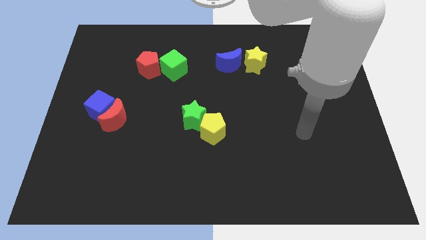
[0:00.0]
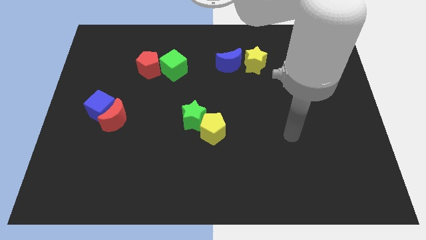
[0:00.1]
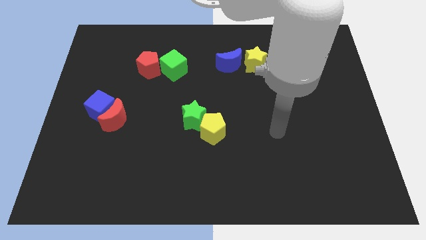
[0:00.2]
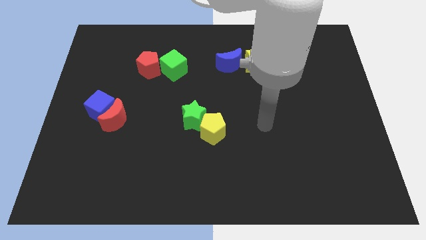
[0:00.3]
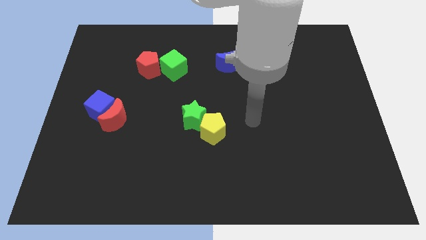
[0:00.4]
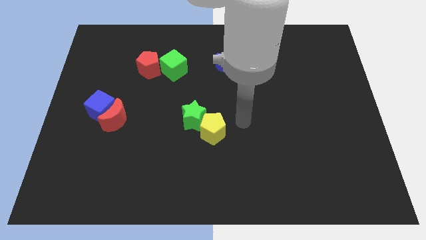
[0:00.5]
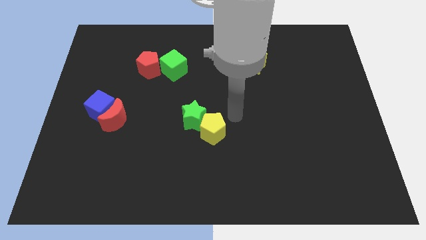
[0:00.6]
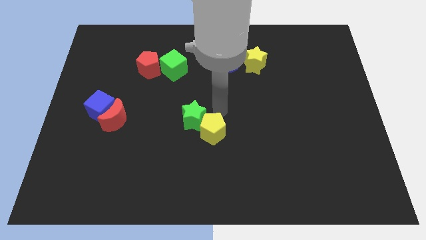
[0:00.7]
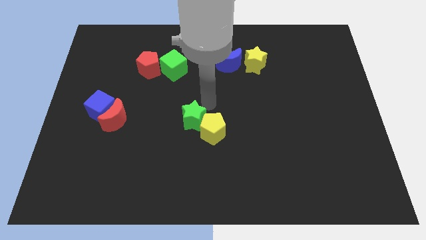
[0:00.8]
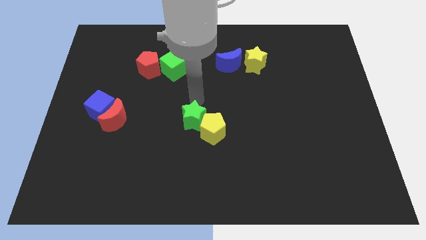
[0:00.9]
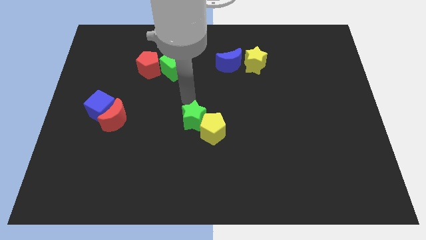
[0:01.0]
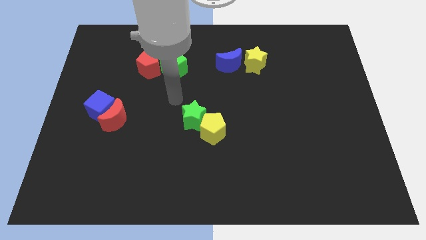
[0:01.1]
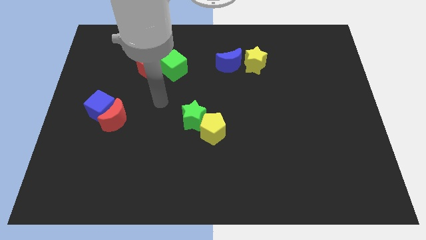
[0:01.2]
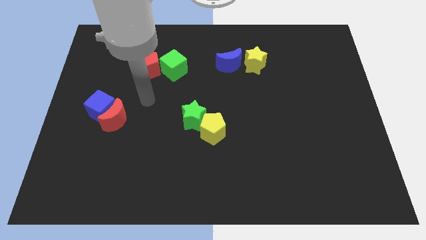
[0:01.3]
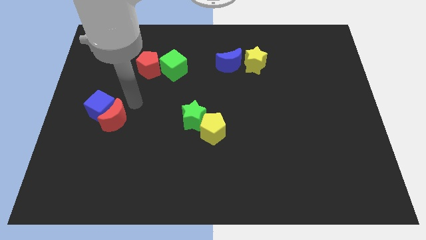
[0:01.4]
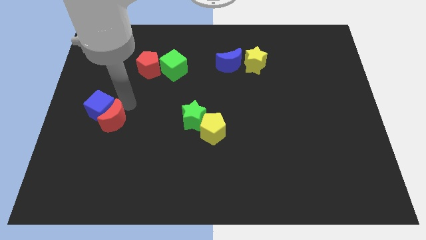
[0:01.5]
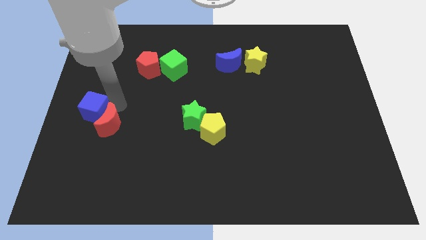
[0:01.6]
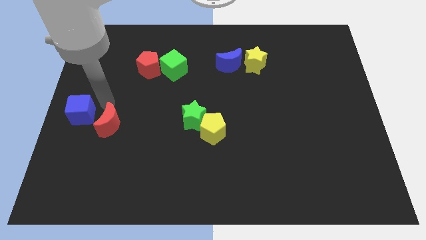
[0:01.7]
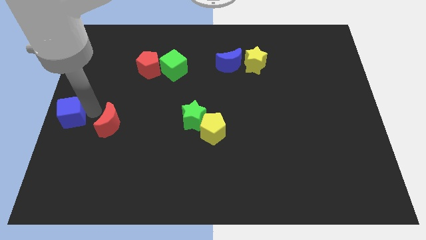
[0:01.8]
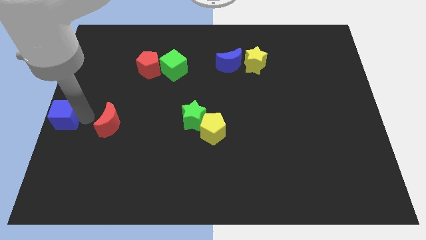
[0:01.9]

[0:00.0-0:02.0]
pull the red moon apart from the blue cube

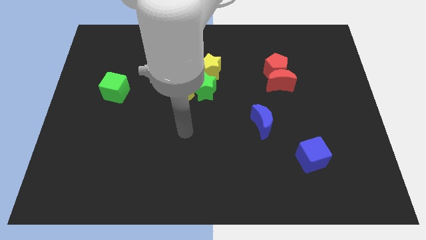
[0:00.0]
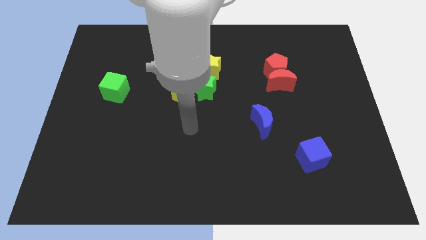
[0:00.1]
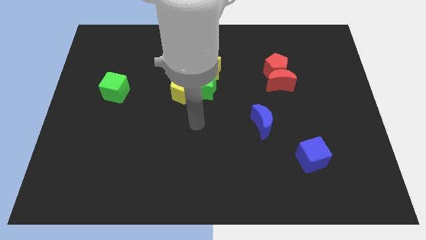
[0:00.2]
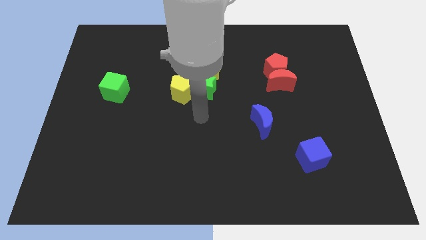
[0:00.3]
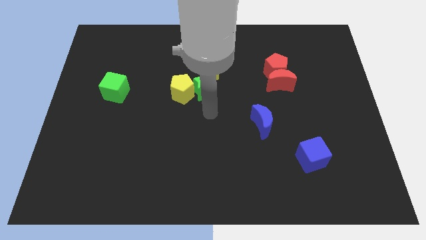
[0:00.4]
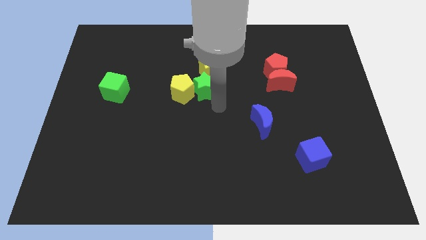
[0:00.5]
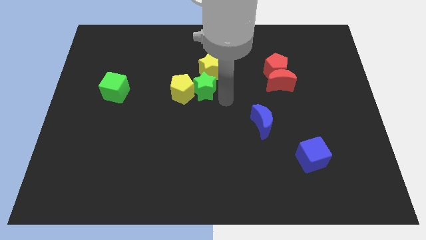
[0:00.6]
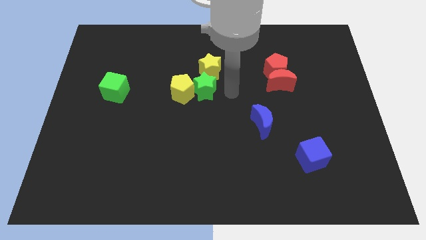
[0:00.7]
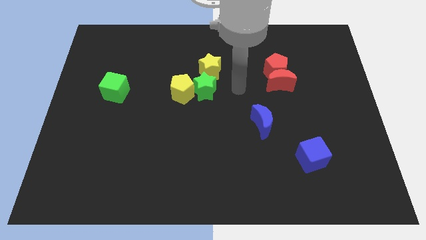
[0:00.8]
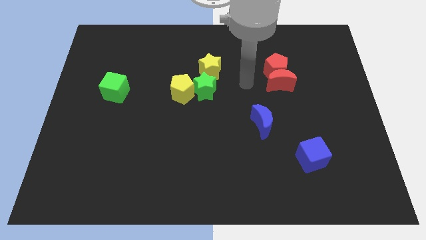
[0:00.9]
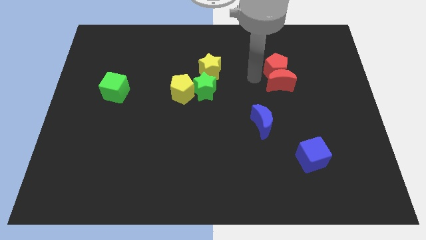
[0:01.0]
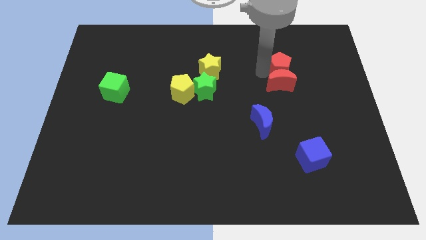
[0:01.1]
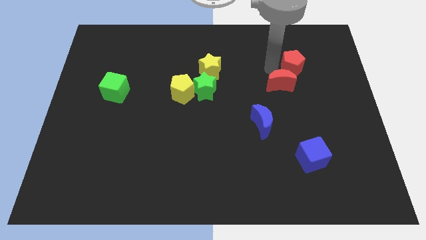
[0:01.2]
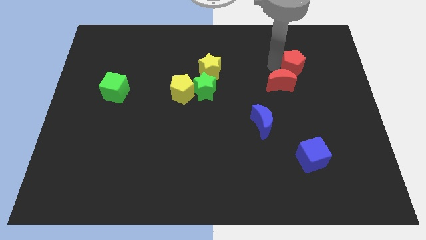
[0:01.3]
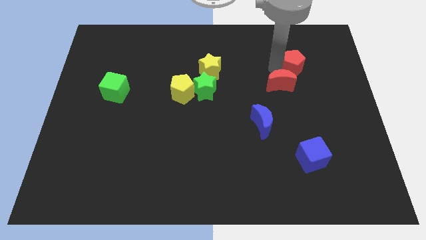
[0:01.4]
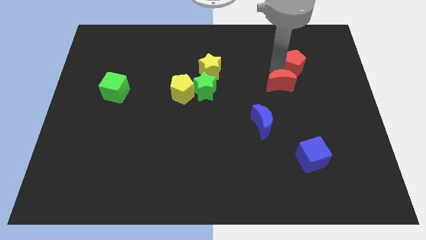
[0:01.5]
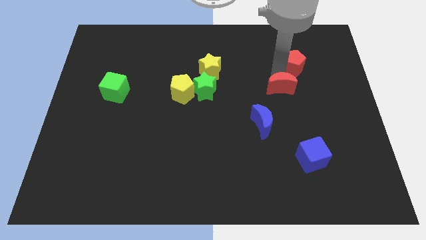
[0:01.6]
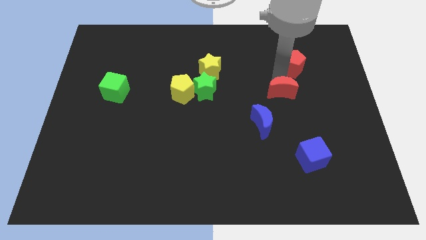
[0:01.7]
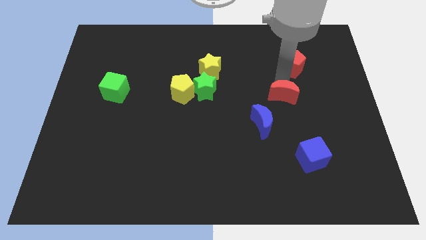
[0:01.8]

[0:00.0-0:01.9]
move the red moon away from the red pentagon

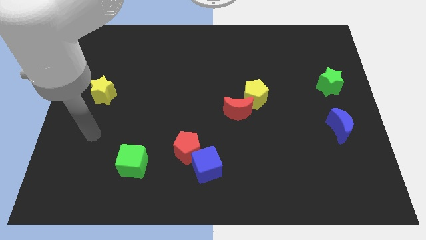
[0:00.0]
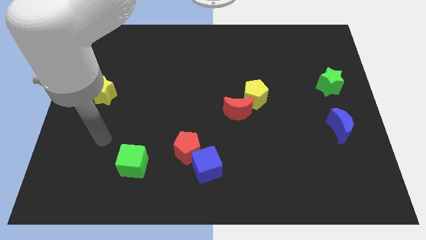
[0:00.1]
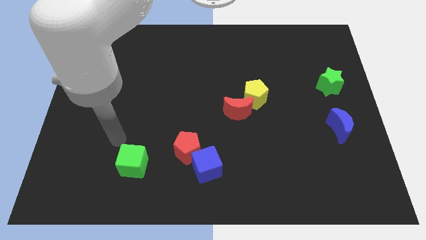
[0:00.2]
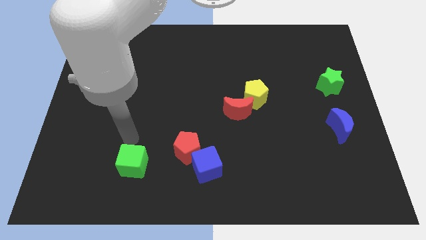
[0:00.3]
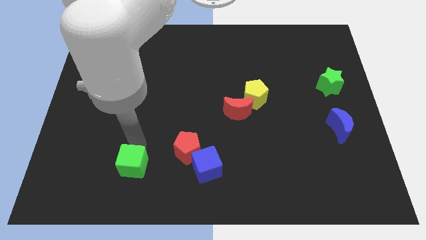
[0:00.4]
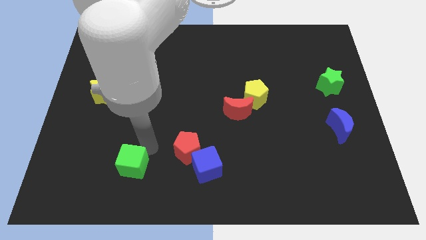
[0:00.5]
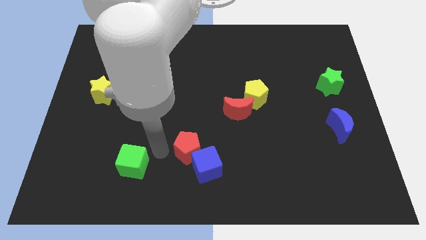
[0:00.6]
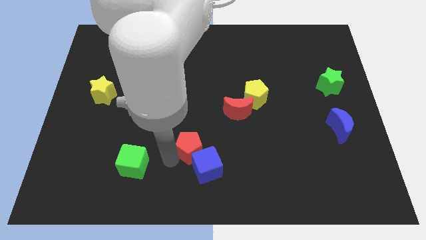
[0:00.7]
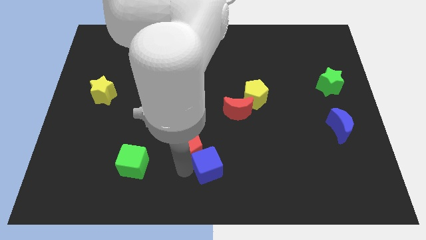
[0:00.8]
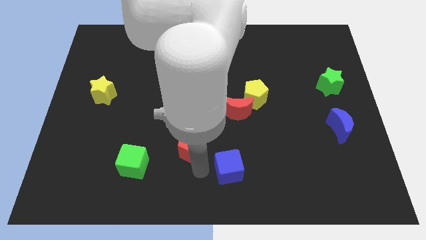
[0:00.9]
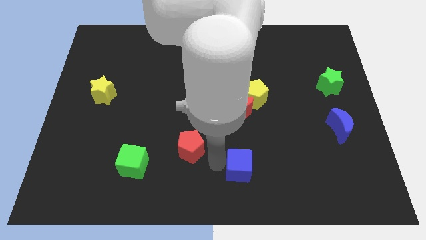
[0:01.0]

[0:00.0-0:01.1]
move the red pentagon away from the blue cube

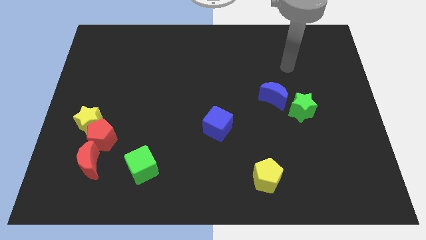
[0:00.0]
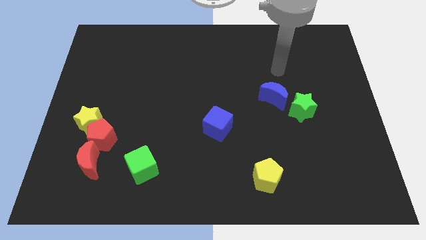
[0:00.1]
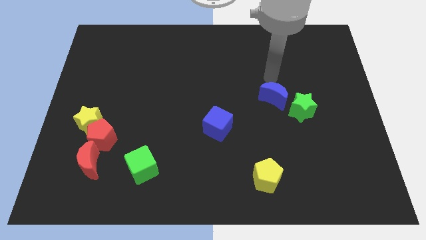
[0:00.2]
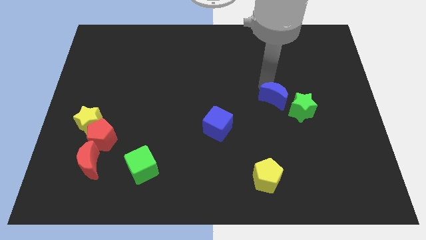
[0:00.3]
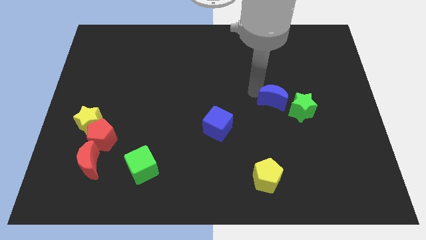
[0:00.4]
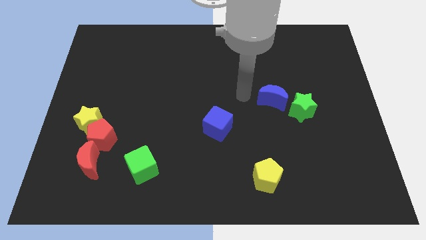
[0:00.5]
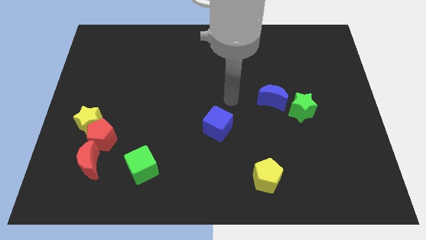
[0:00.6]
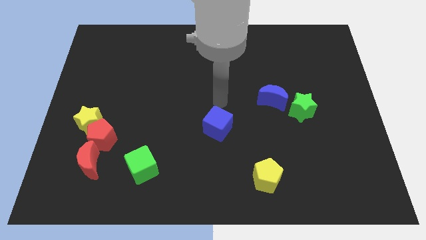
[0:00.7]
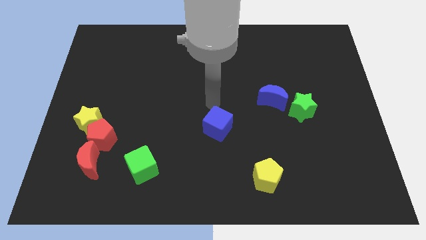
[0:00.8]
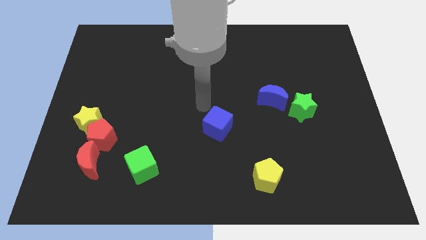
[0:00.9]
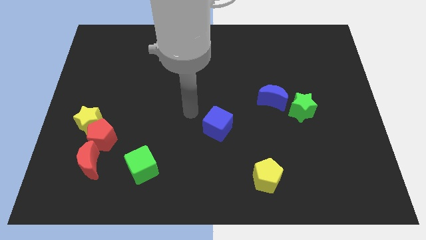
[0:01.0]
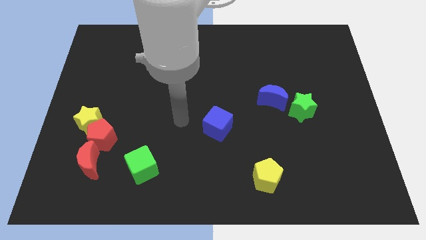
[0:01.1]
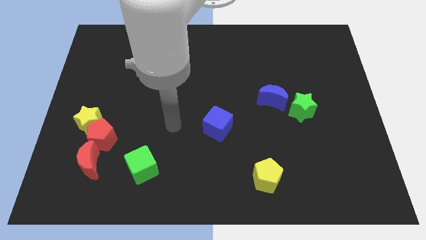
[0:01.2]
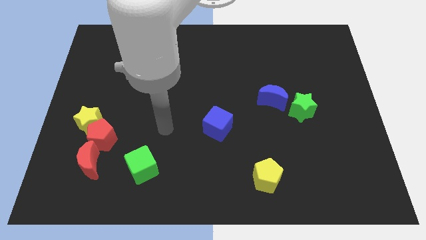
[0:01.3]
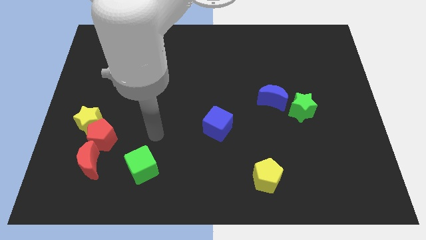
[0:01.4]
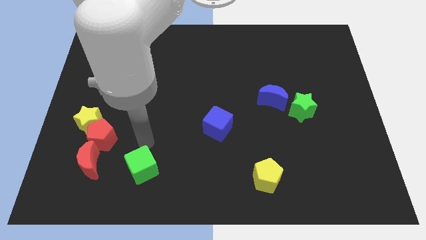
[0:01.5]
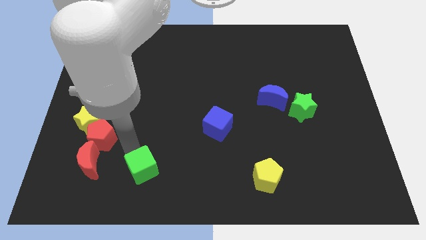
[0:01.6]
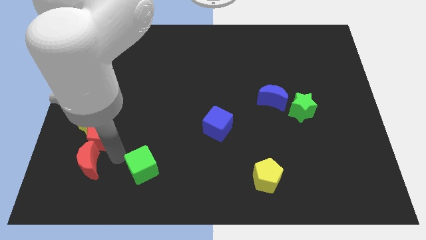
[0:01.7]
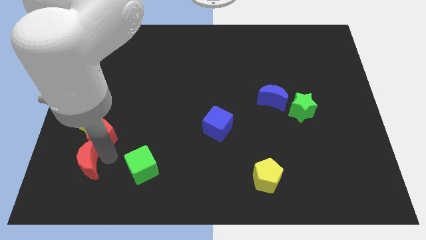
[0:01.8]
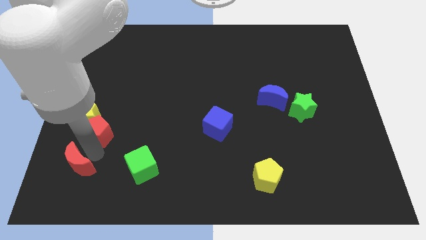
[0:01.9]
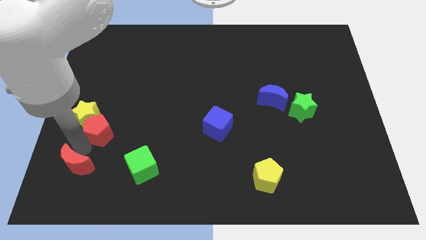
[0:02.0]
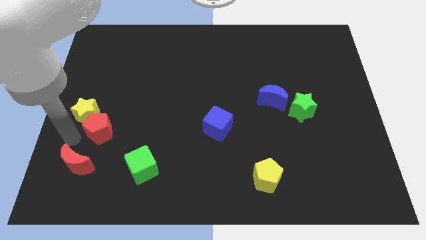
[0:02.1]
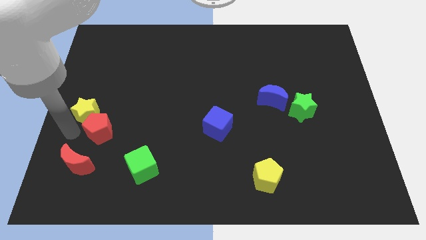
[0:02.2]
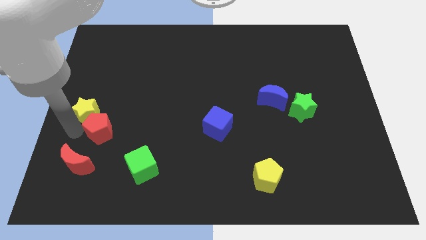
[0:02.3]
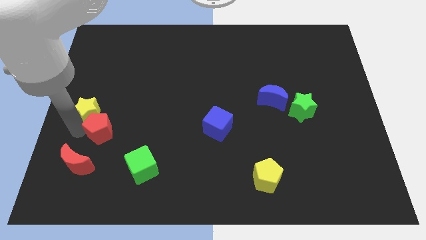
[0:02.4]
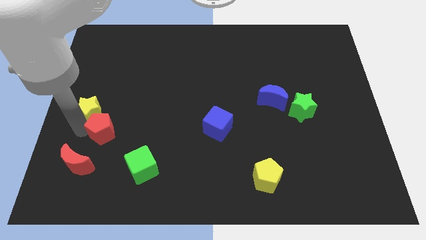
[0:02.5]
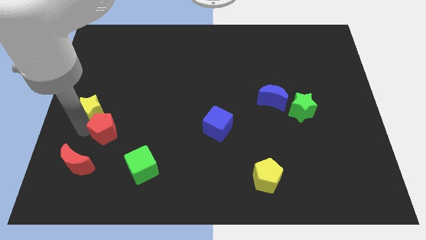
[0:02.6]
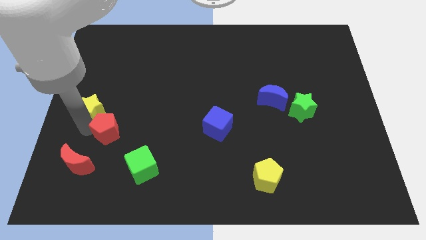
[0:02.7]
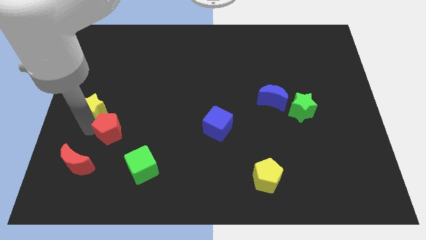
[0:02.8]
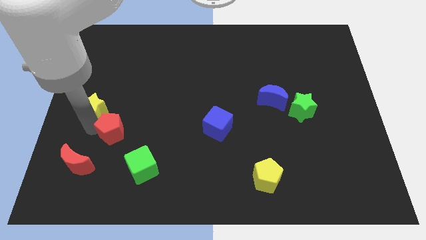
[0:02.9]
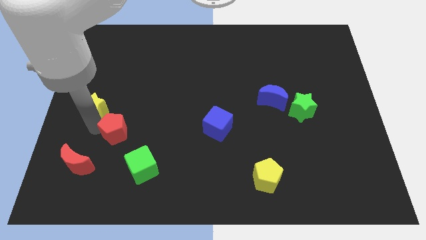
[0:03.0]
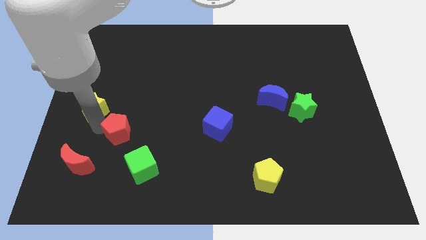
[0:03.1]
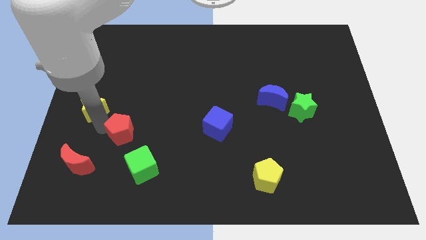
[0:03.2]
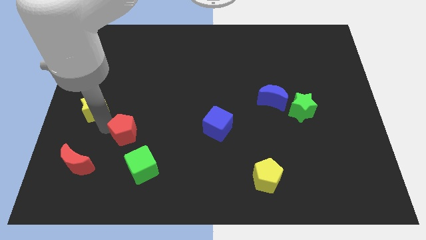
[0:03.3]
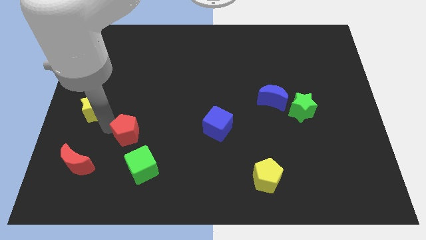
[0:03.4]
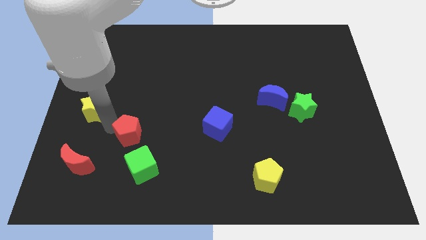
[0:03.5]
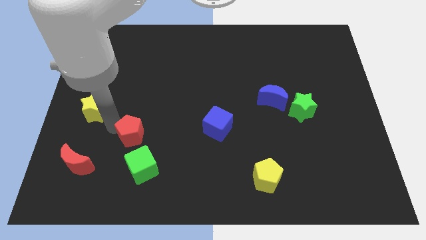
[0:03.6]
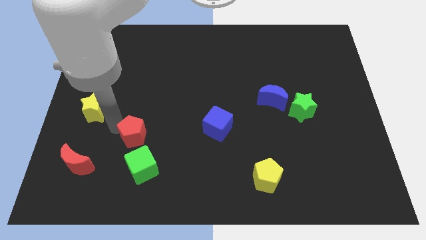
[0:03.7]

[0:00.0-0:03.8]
pull the red pentagon apart from the yellow star and red moon

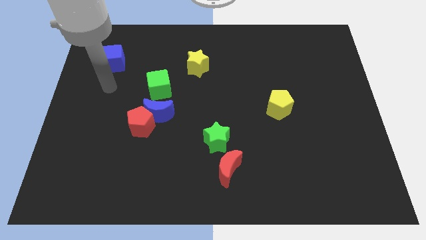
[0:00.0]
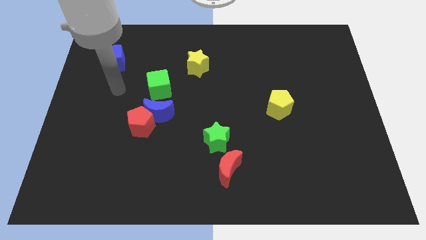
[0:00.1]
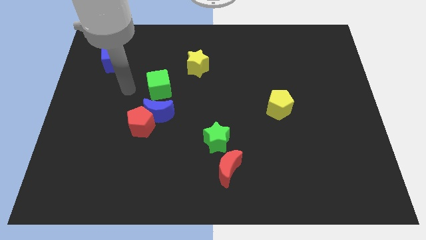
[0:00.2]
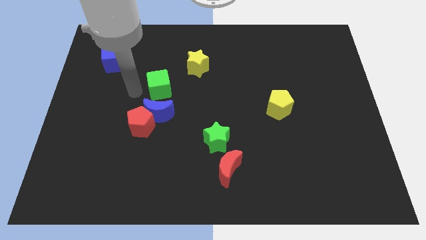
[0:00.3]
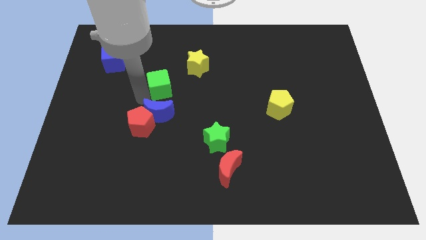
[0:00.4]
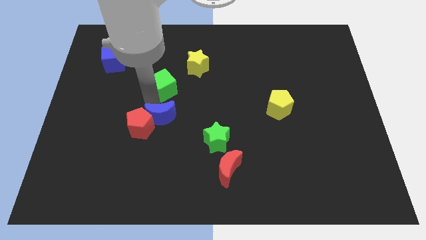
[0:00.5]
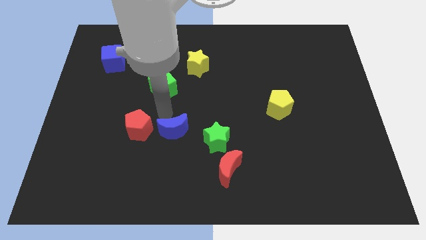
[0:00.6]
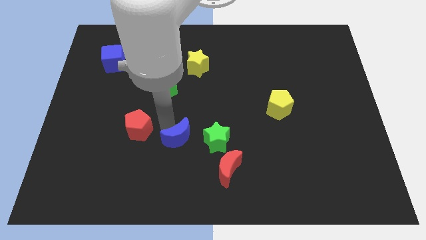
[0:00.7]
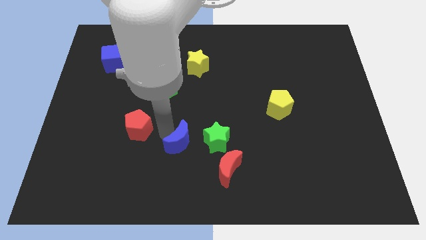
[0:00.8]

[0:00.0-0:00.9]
pull the red pentagon apart from the blue moon
